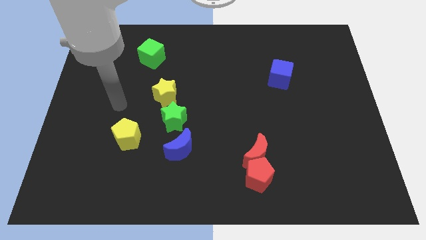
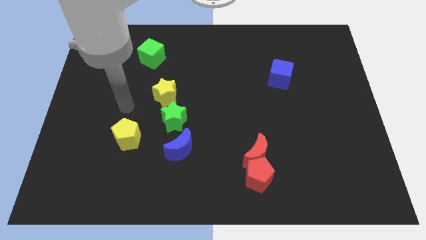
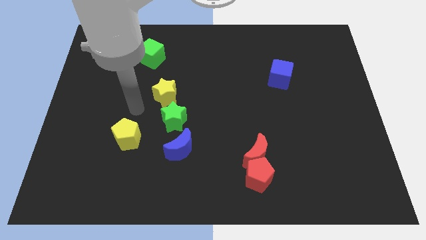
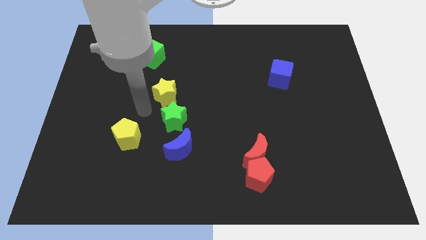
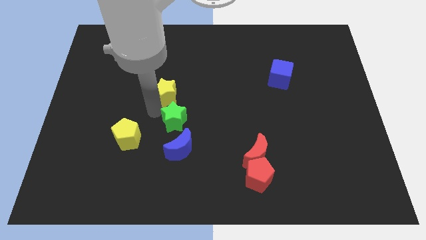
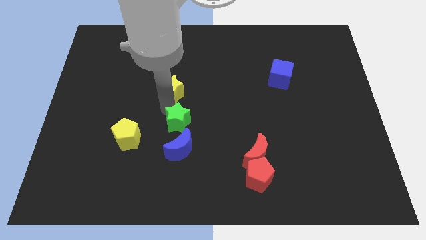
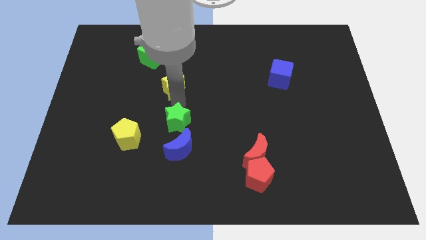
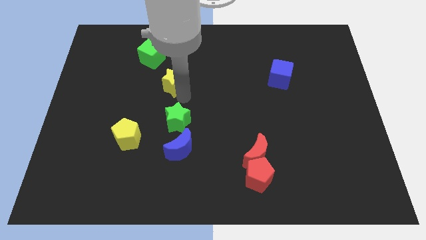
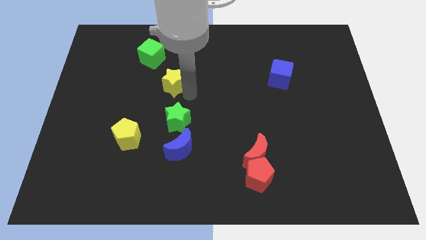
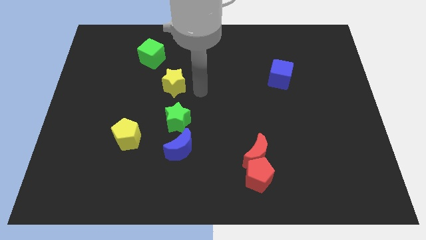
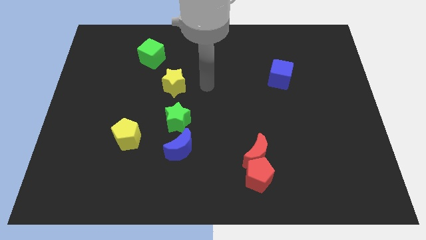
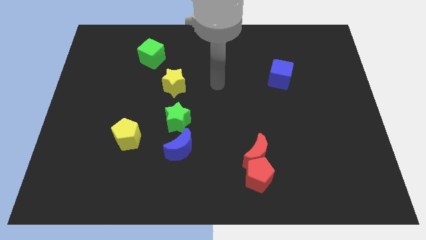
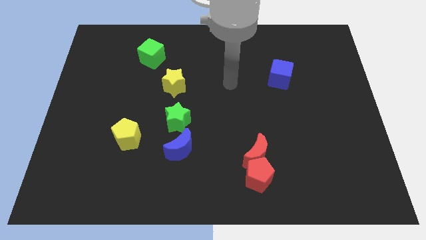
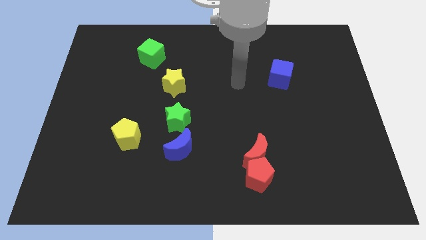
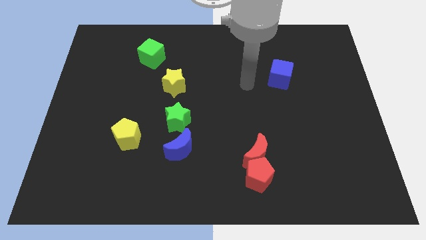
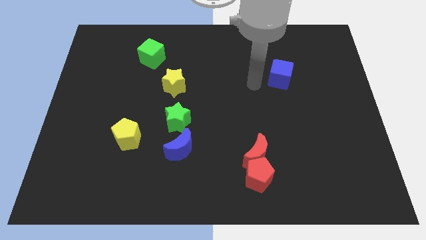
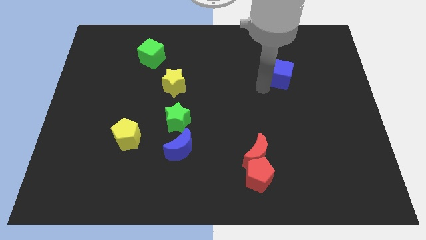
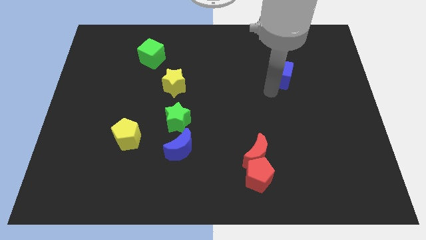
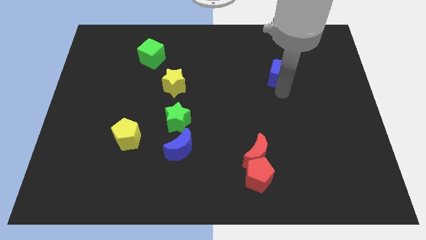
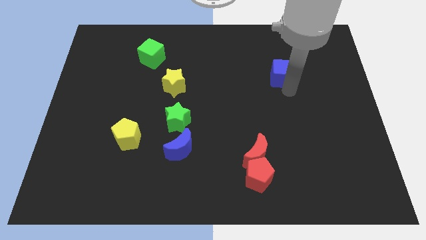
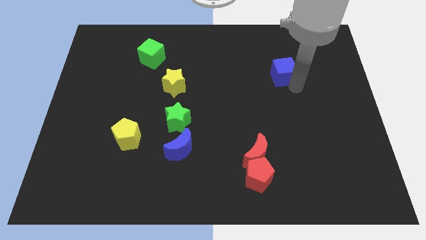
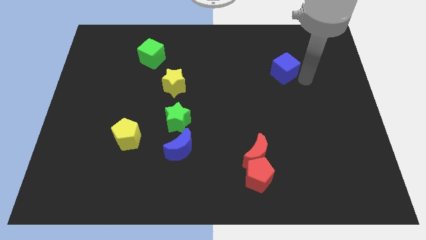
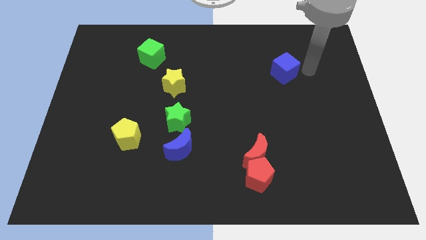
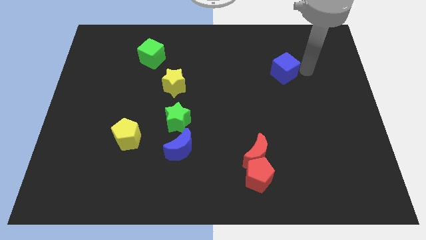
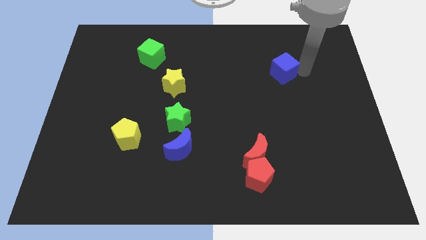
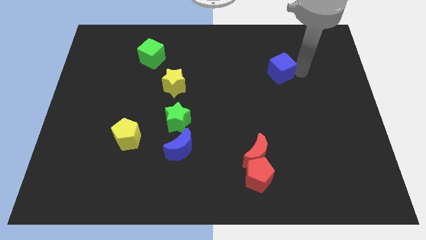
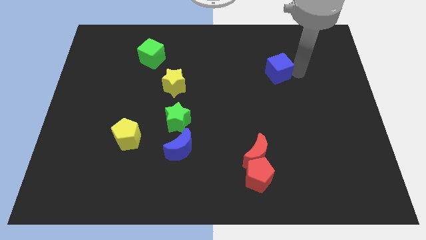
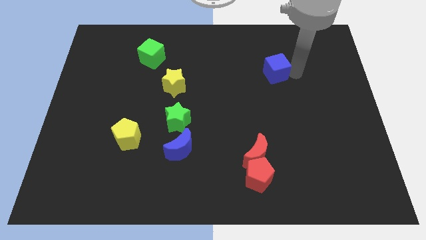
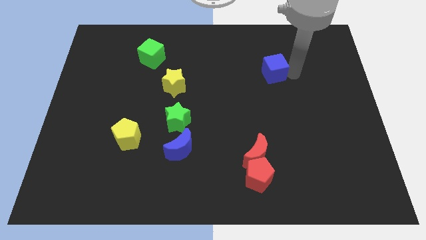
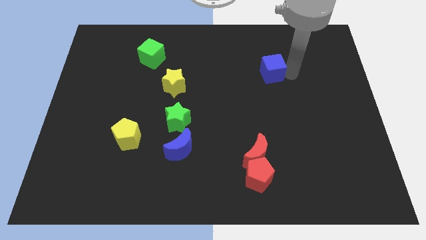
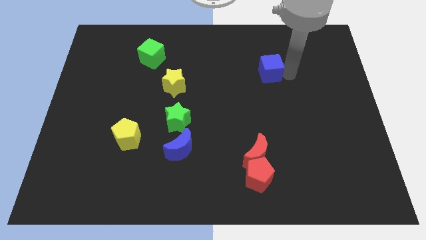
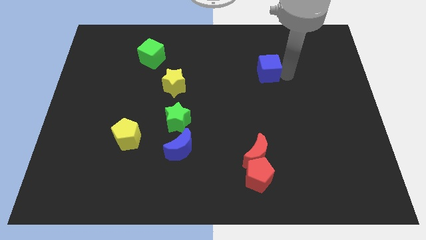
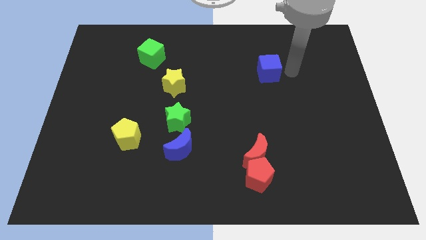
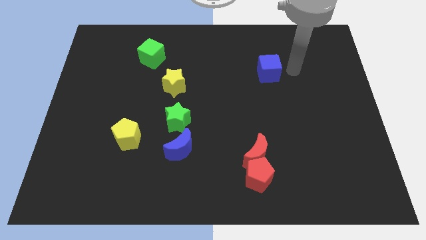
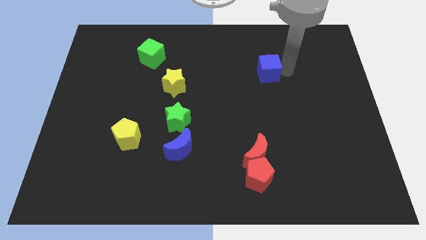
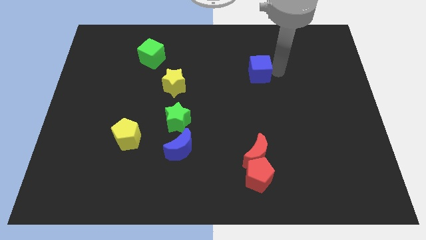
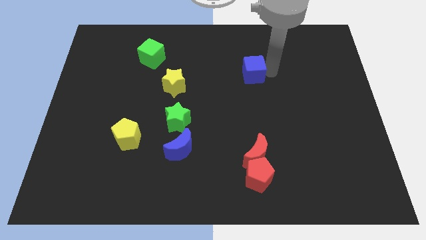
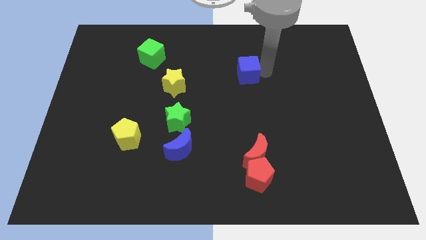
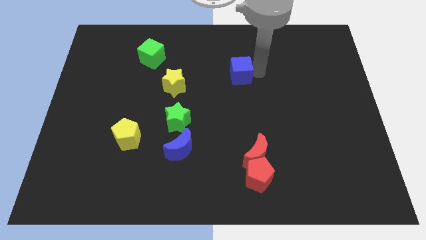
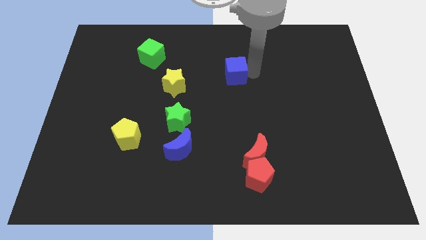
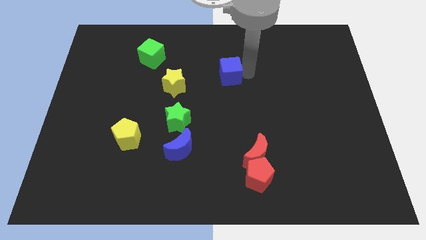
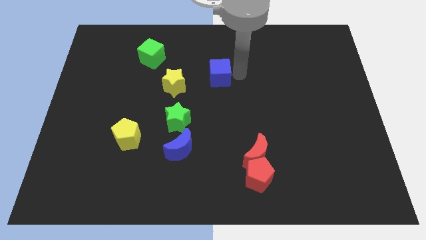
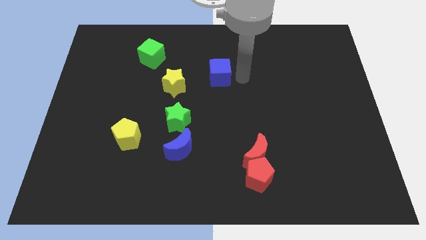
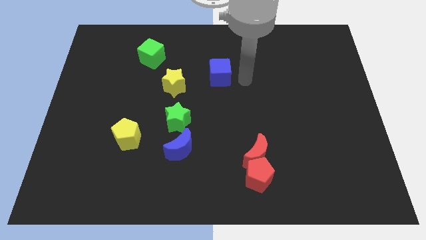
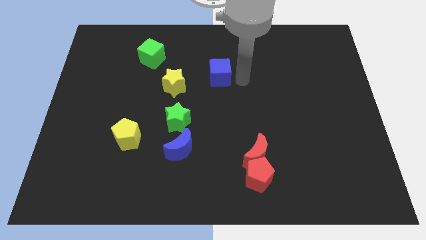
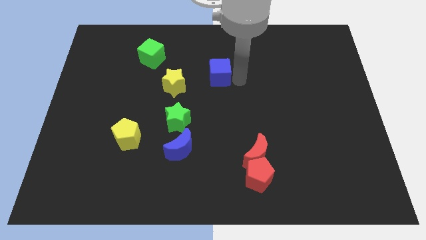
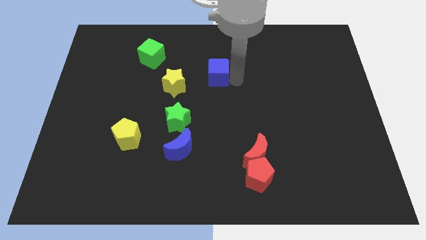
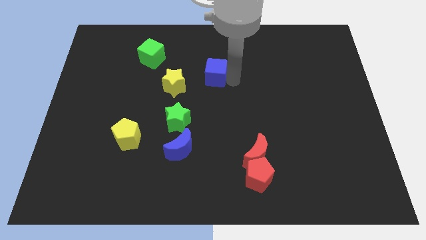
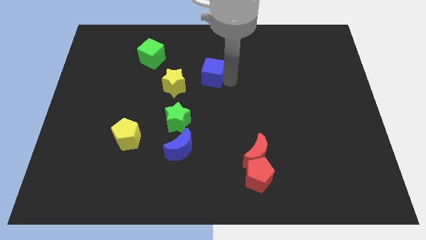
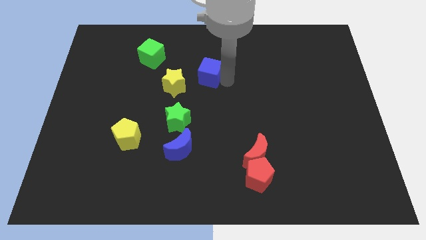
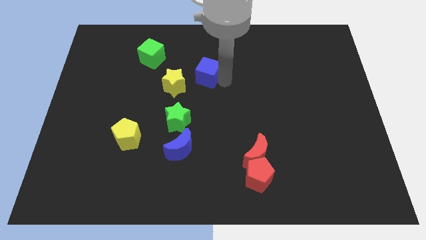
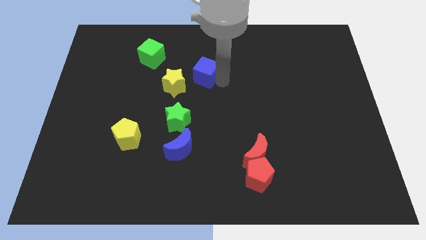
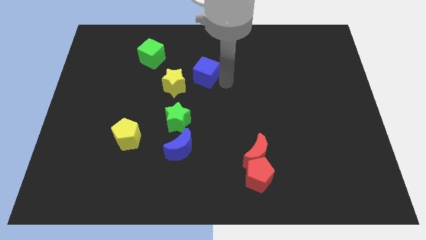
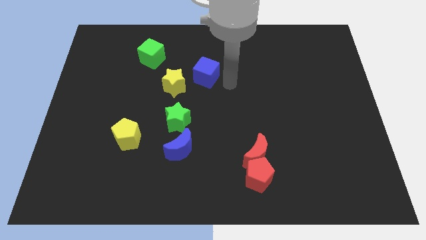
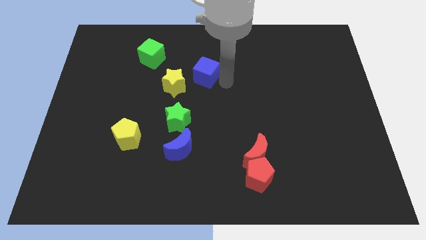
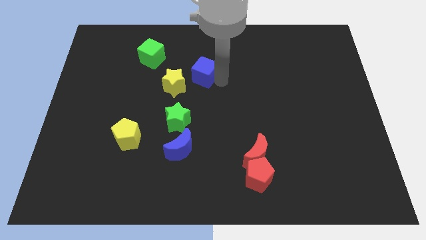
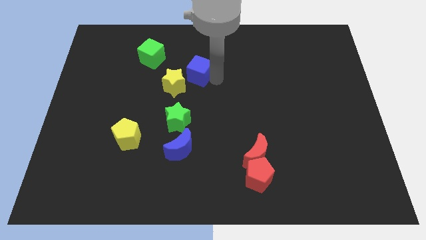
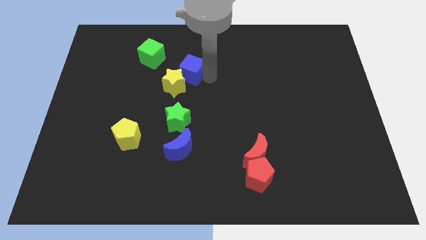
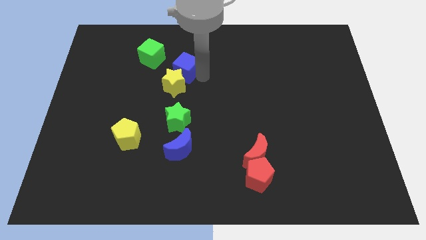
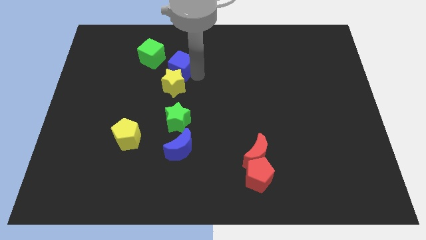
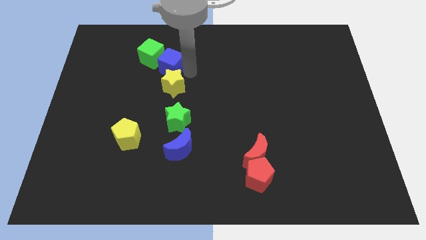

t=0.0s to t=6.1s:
move the blue cube towards the green cube
